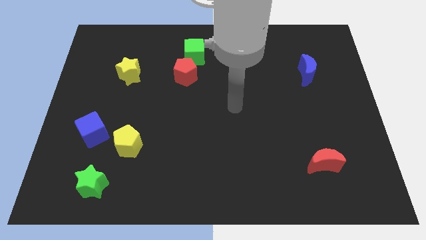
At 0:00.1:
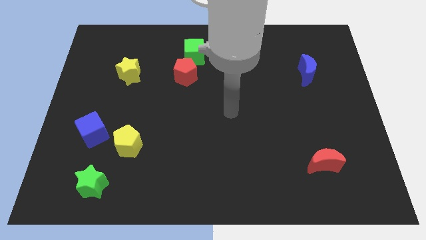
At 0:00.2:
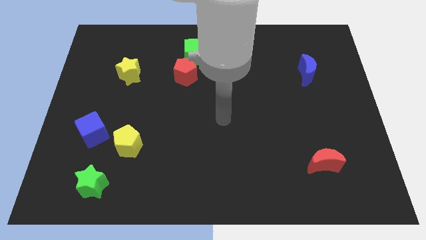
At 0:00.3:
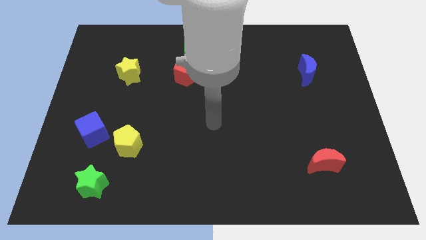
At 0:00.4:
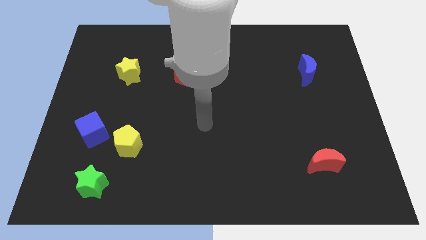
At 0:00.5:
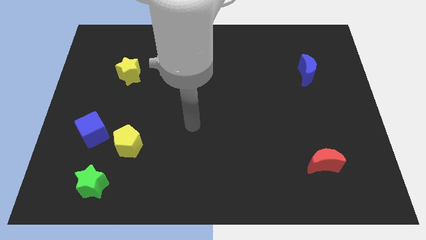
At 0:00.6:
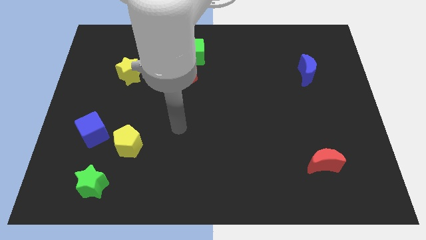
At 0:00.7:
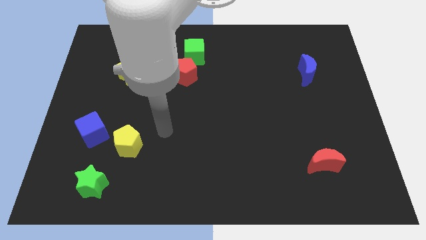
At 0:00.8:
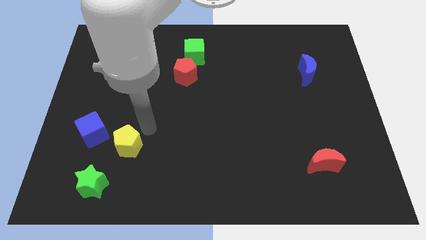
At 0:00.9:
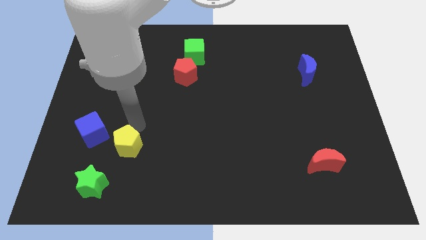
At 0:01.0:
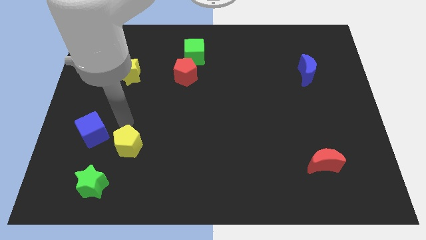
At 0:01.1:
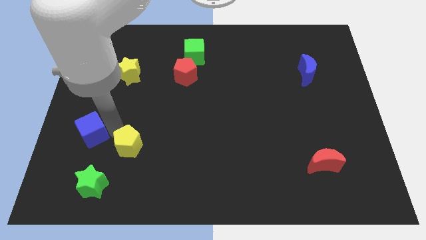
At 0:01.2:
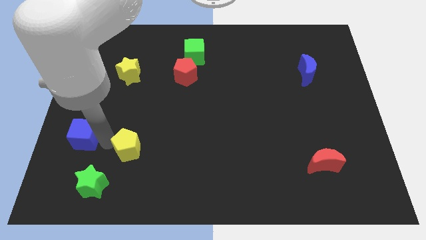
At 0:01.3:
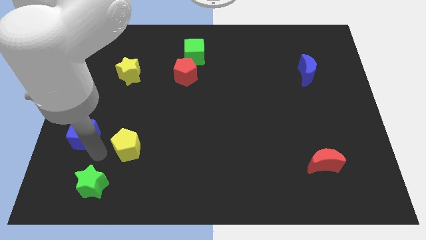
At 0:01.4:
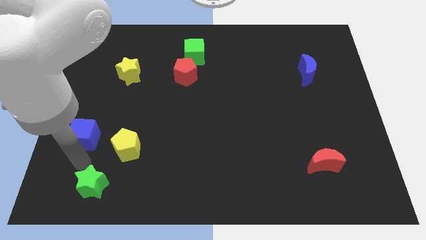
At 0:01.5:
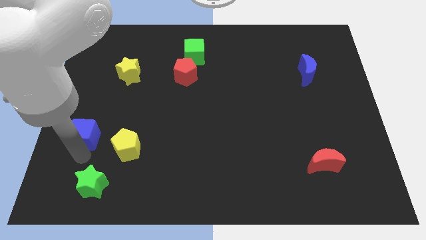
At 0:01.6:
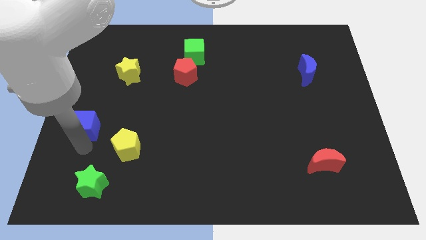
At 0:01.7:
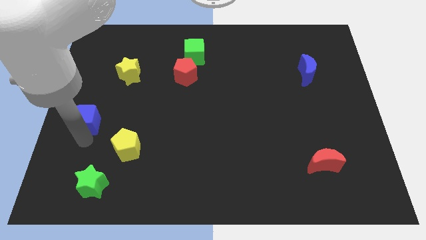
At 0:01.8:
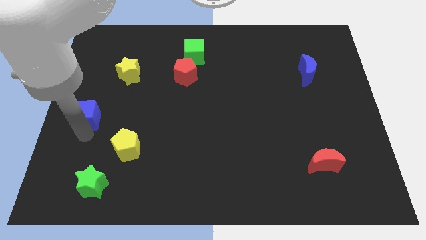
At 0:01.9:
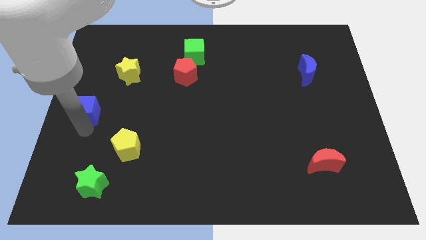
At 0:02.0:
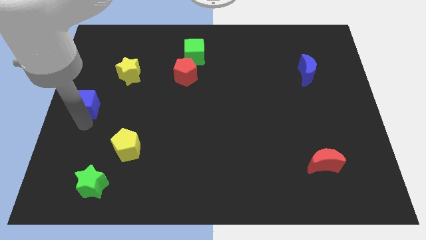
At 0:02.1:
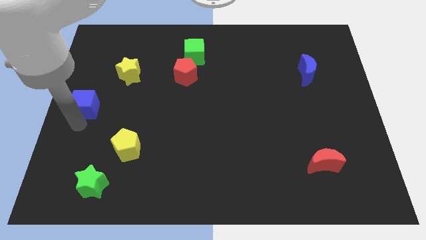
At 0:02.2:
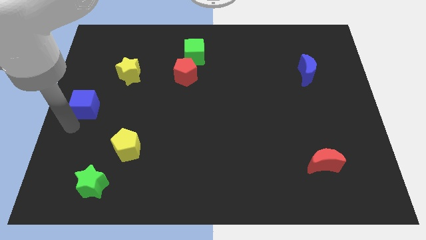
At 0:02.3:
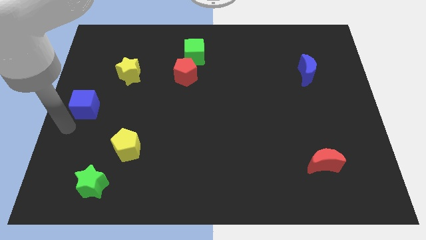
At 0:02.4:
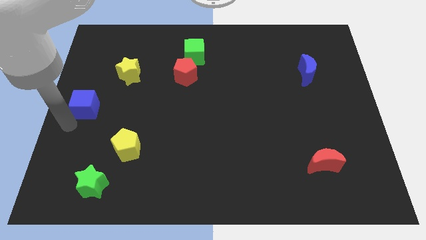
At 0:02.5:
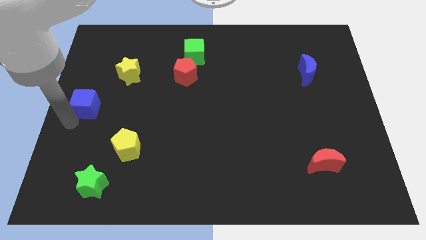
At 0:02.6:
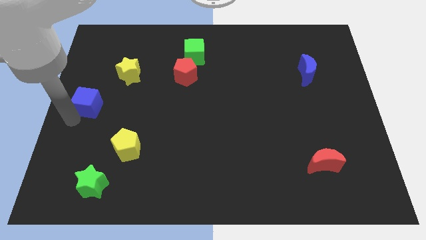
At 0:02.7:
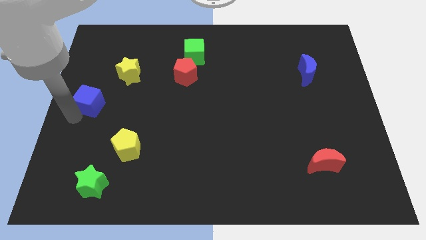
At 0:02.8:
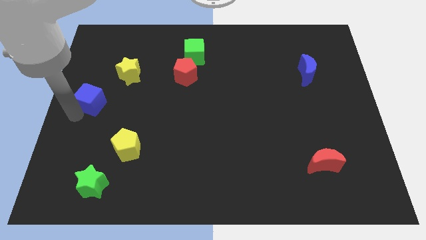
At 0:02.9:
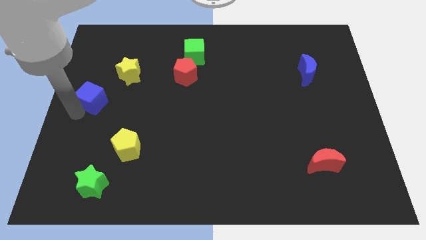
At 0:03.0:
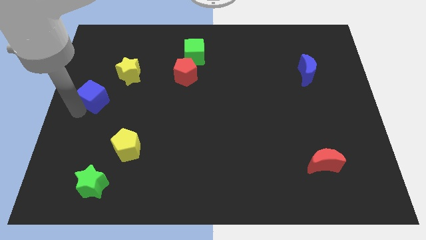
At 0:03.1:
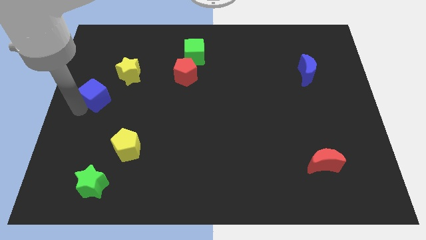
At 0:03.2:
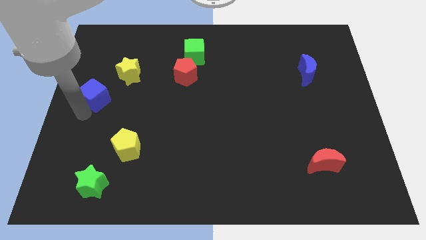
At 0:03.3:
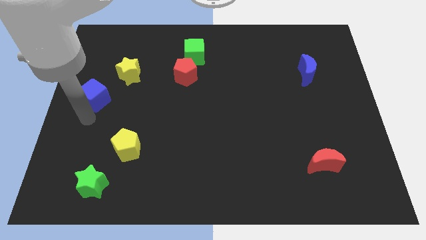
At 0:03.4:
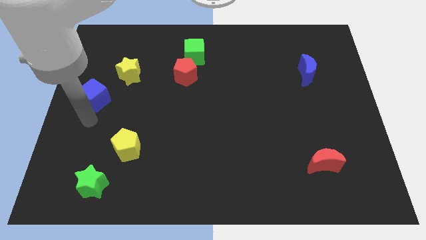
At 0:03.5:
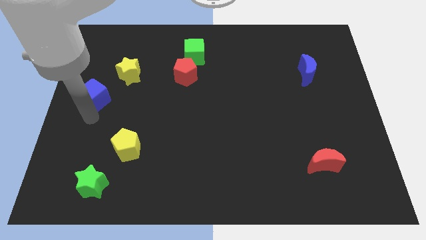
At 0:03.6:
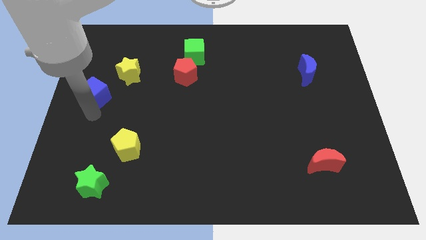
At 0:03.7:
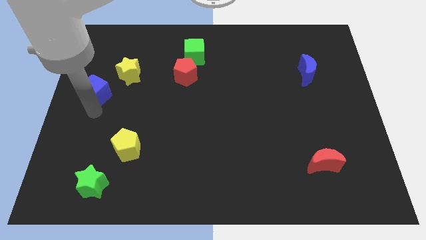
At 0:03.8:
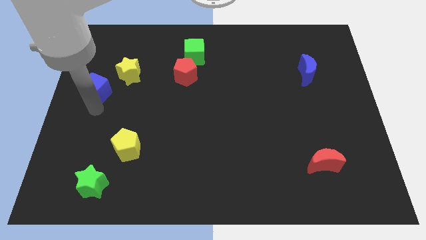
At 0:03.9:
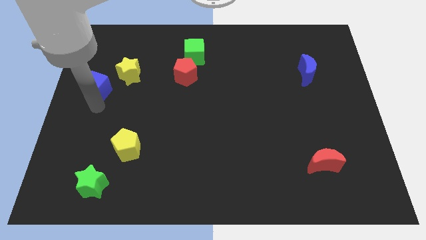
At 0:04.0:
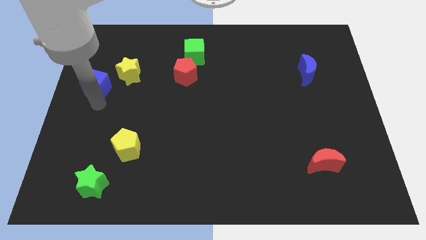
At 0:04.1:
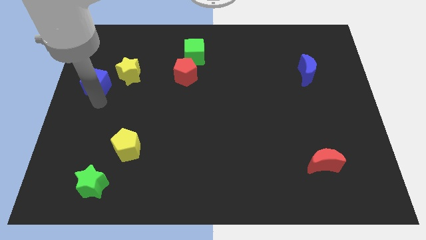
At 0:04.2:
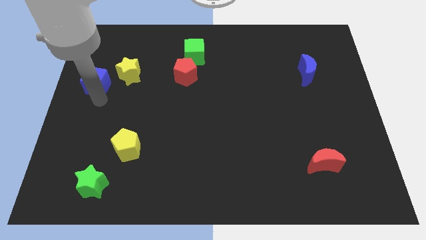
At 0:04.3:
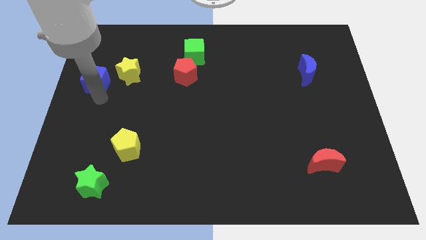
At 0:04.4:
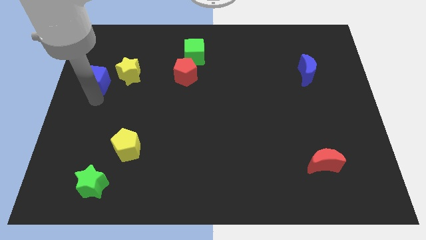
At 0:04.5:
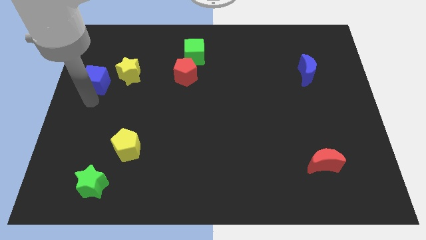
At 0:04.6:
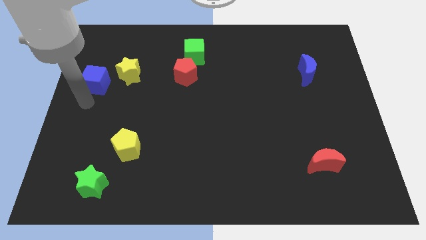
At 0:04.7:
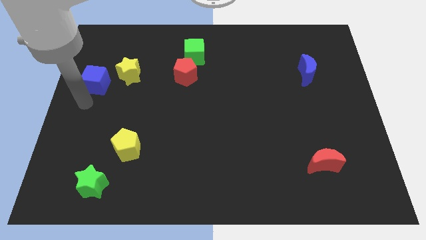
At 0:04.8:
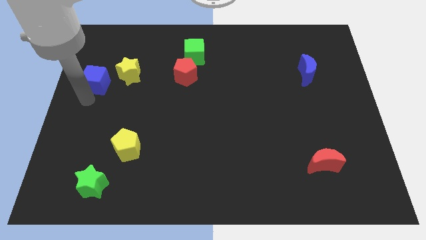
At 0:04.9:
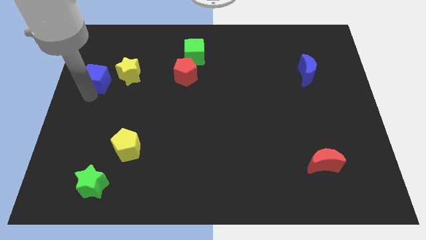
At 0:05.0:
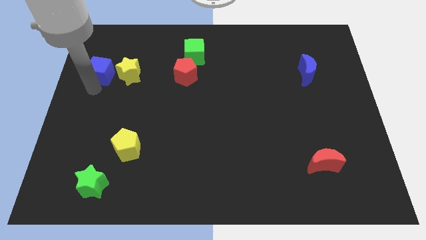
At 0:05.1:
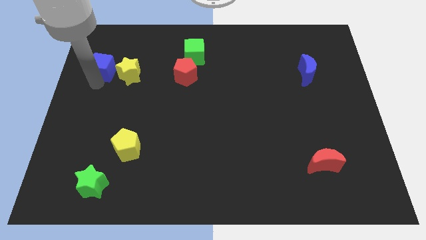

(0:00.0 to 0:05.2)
push the blue cube to the top left of the yellow star

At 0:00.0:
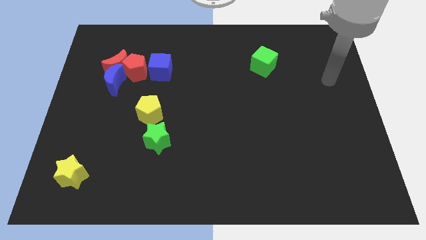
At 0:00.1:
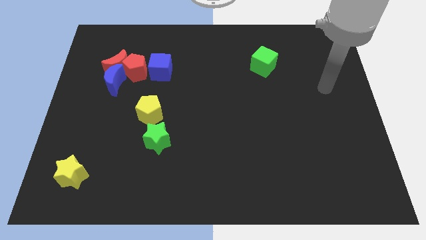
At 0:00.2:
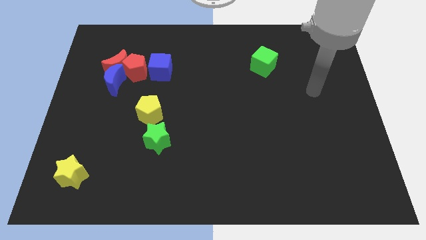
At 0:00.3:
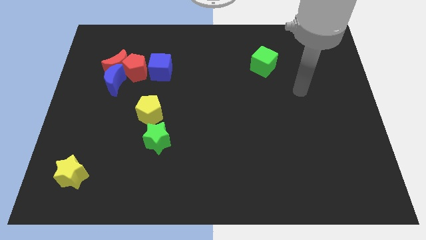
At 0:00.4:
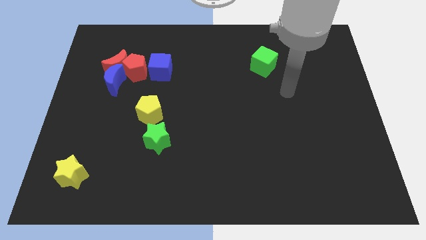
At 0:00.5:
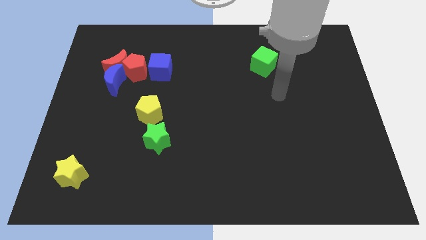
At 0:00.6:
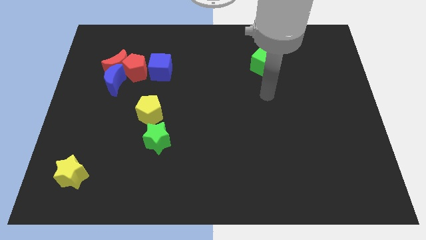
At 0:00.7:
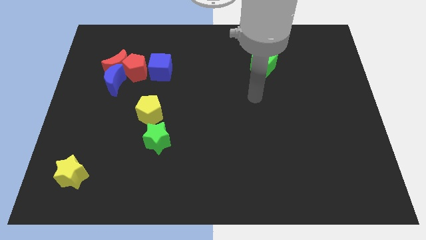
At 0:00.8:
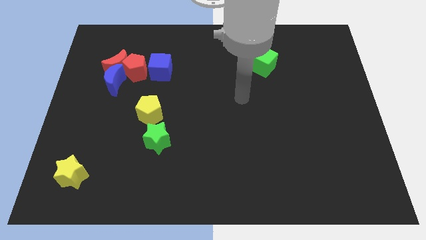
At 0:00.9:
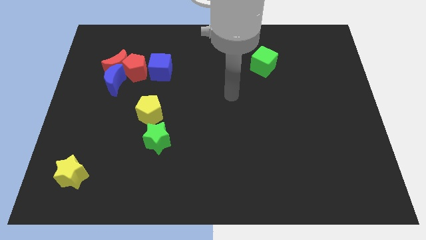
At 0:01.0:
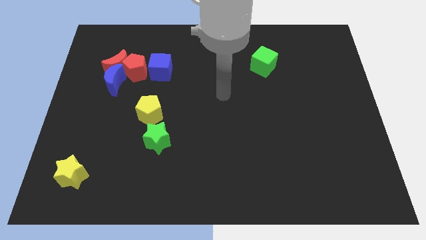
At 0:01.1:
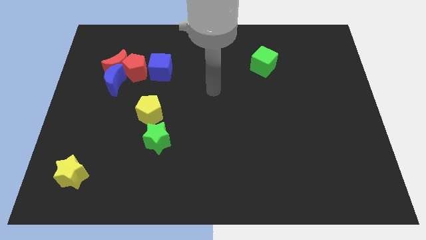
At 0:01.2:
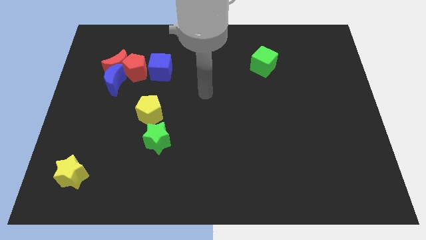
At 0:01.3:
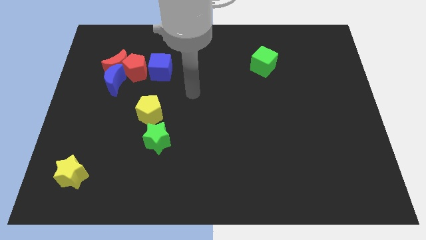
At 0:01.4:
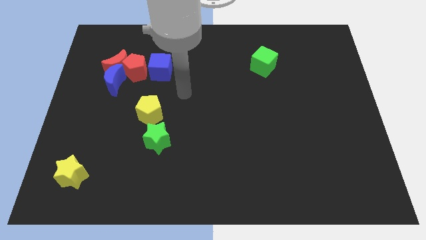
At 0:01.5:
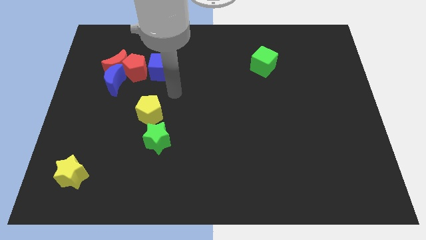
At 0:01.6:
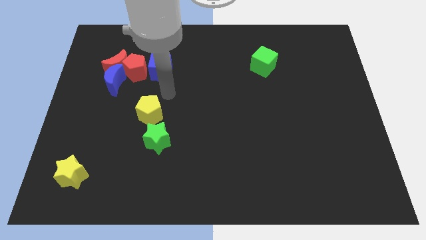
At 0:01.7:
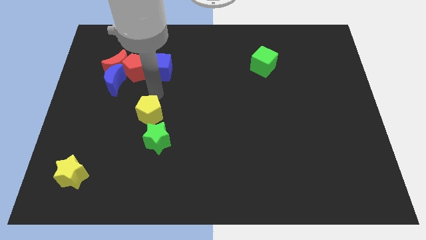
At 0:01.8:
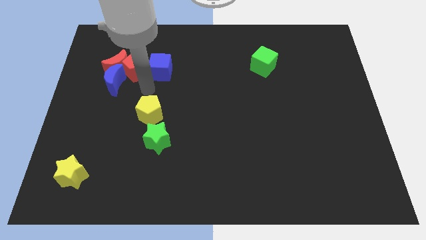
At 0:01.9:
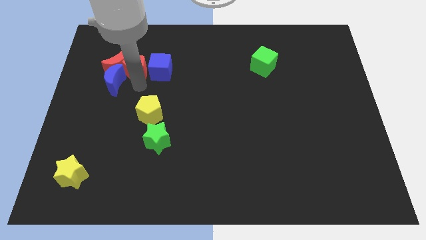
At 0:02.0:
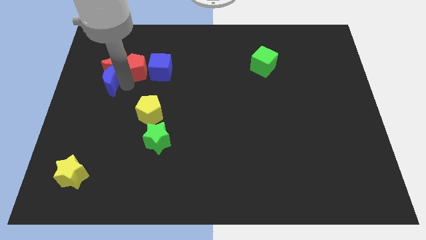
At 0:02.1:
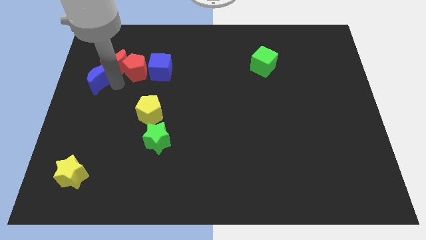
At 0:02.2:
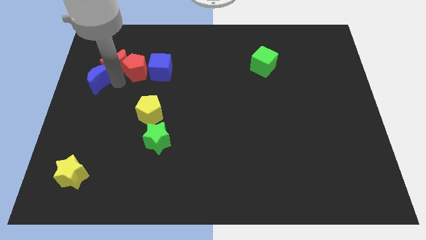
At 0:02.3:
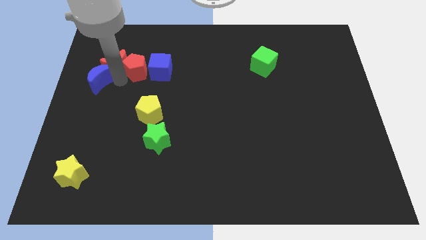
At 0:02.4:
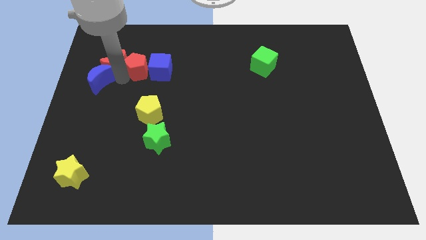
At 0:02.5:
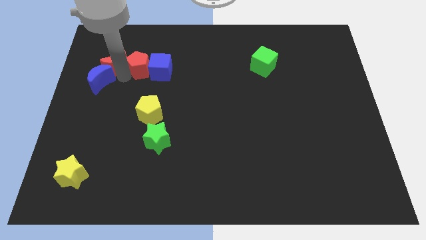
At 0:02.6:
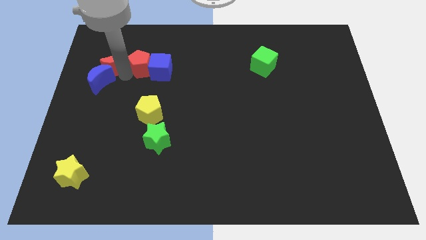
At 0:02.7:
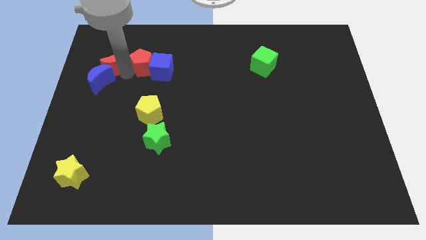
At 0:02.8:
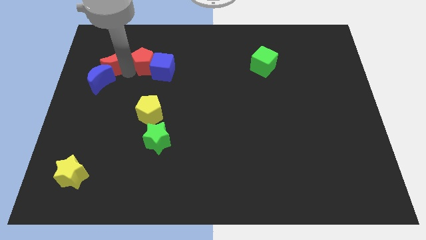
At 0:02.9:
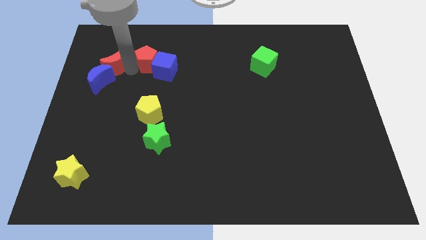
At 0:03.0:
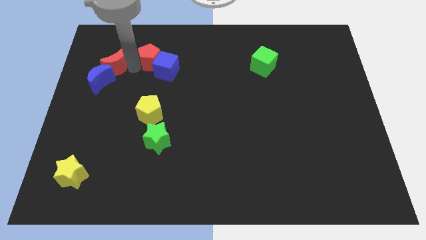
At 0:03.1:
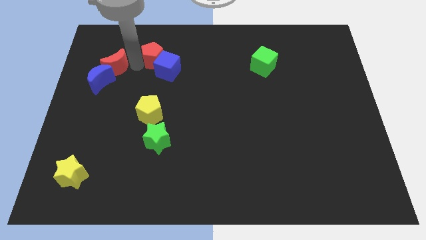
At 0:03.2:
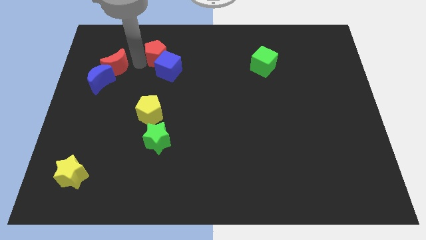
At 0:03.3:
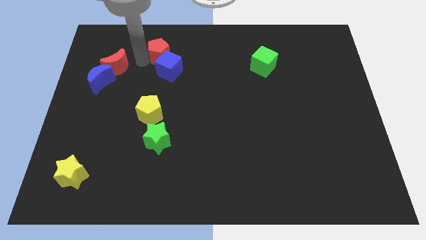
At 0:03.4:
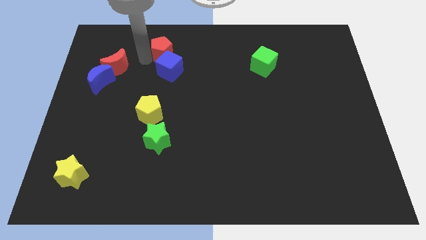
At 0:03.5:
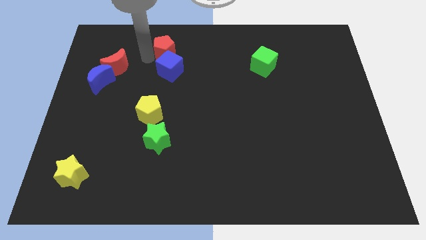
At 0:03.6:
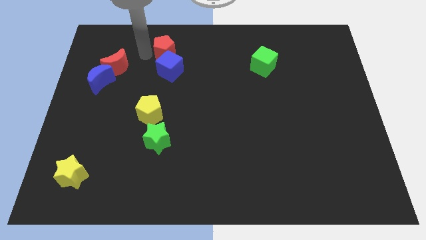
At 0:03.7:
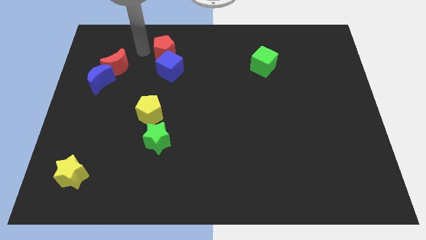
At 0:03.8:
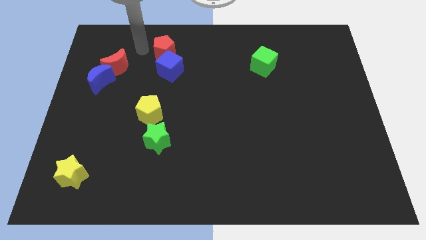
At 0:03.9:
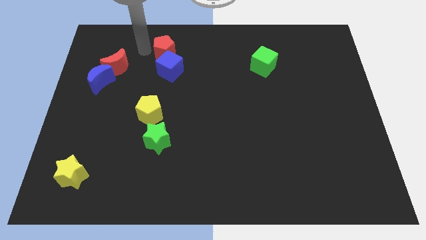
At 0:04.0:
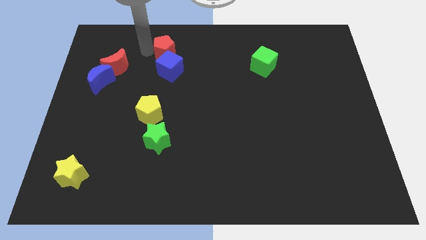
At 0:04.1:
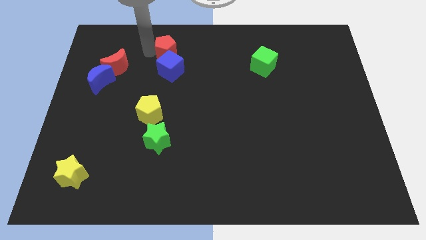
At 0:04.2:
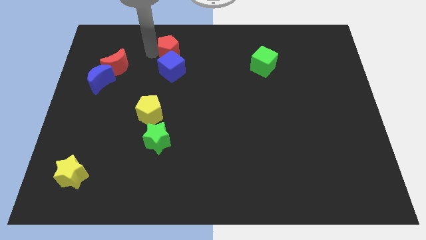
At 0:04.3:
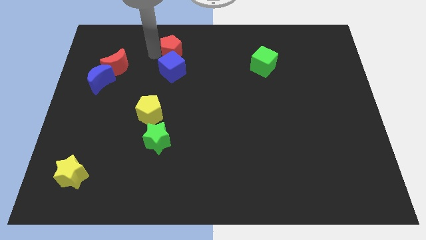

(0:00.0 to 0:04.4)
slide the red pentagon diagonally up and to the right of the blue cube
